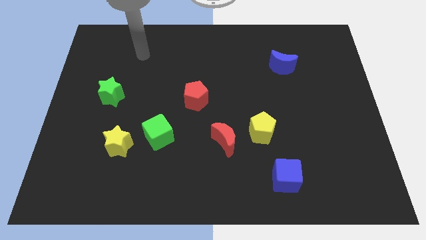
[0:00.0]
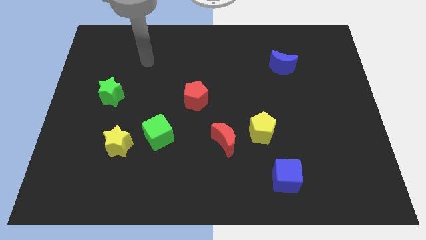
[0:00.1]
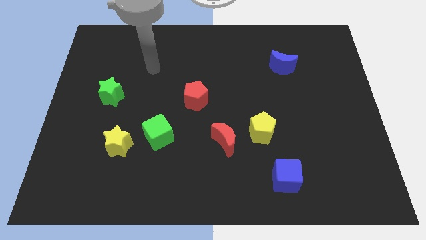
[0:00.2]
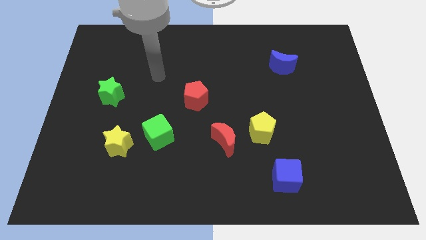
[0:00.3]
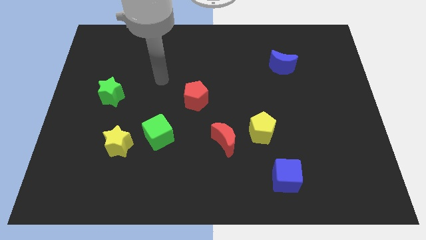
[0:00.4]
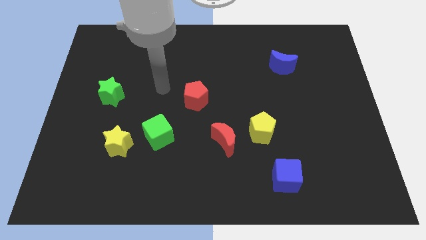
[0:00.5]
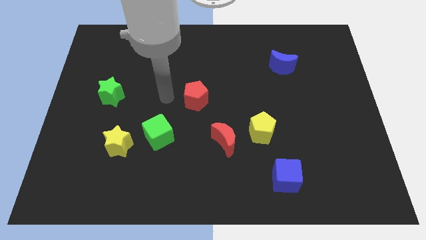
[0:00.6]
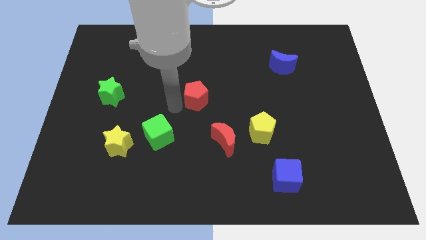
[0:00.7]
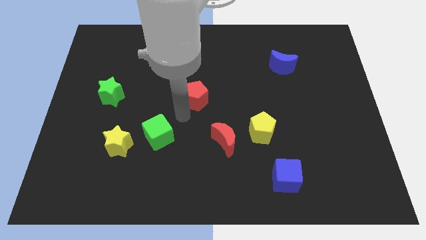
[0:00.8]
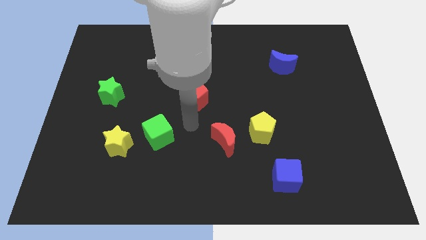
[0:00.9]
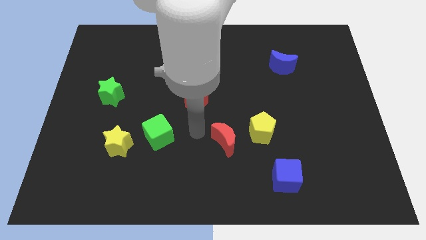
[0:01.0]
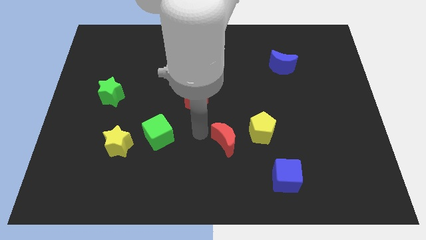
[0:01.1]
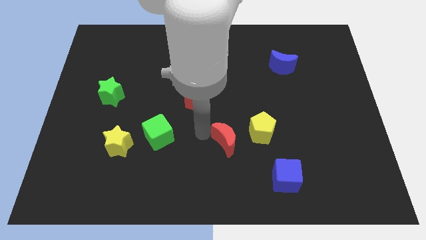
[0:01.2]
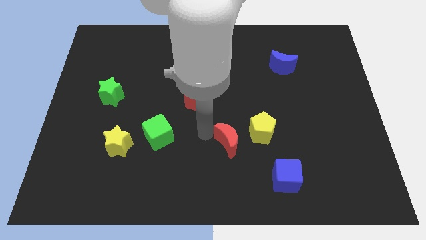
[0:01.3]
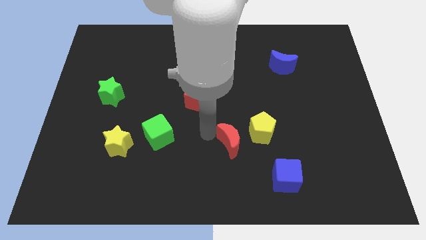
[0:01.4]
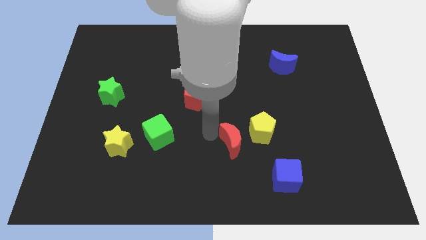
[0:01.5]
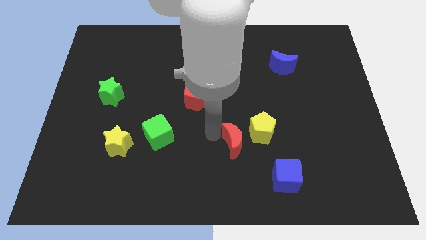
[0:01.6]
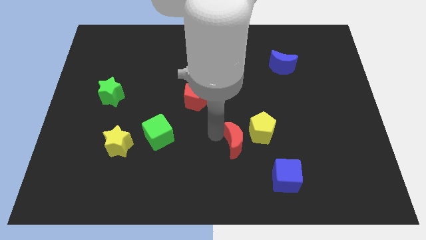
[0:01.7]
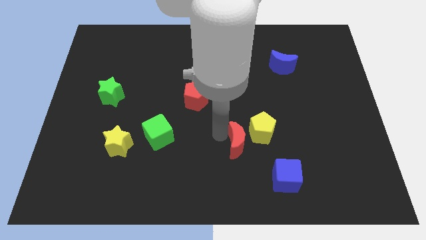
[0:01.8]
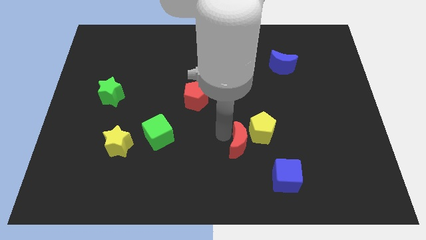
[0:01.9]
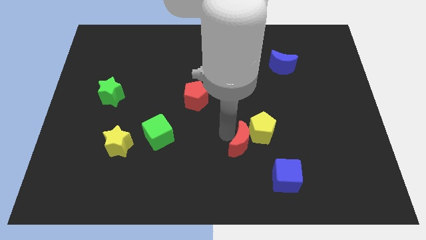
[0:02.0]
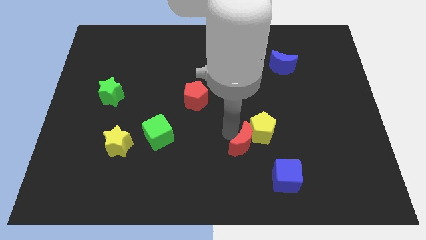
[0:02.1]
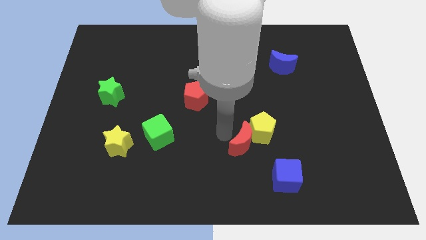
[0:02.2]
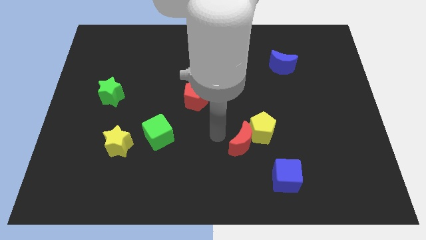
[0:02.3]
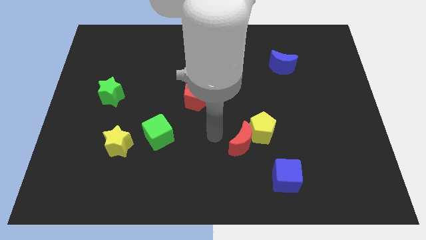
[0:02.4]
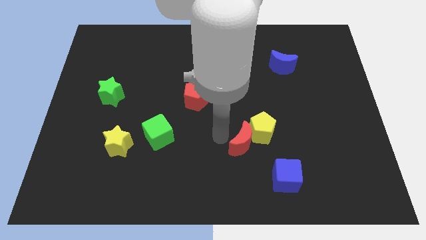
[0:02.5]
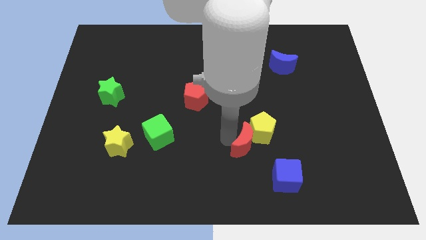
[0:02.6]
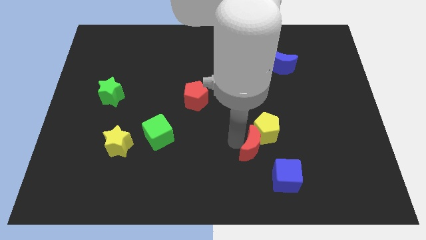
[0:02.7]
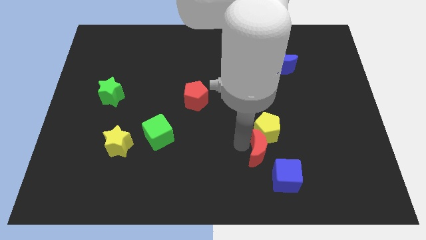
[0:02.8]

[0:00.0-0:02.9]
move the red moon slightly right

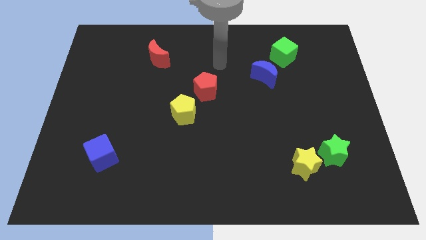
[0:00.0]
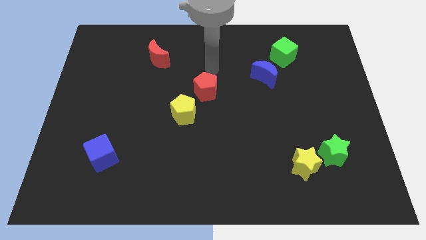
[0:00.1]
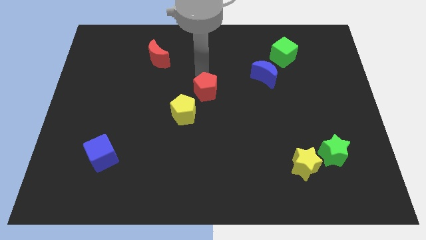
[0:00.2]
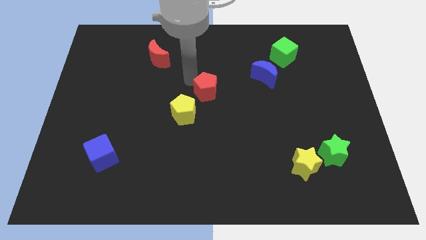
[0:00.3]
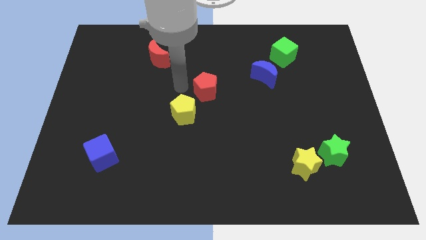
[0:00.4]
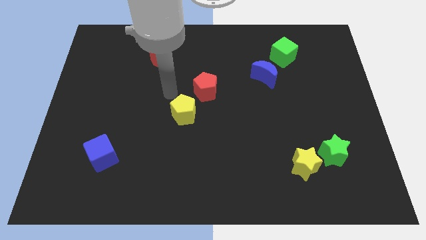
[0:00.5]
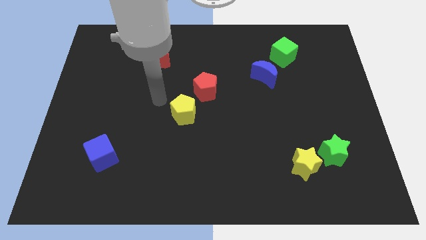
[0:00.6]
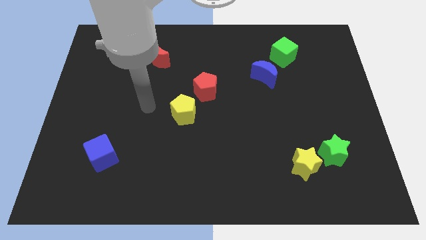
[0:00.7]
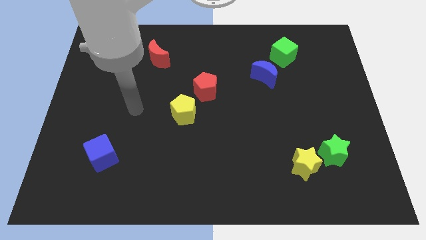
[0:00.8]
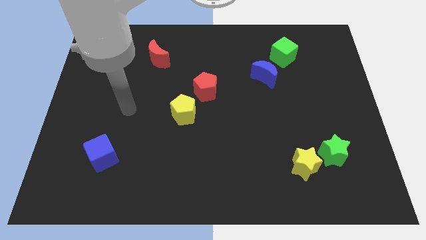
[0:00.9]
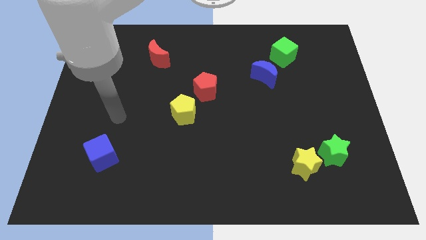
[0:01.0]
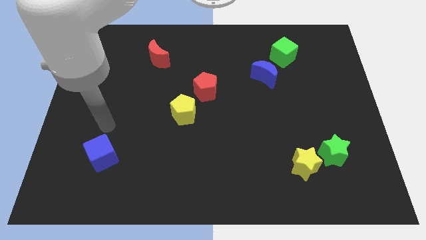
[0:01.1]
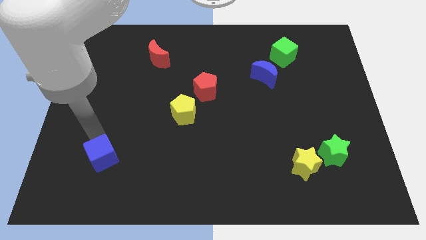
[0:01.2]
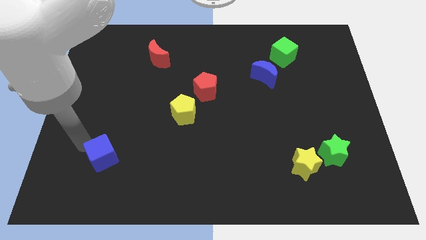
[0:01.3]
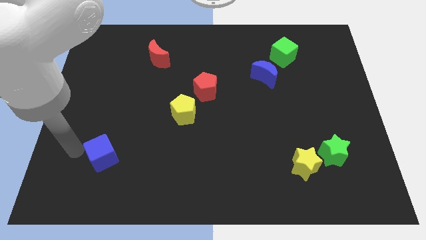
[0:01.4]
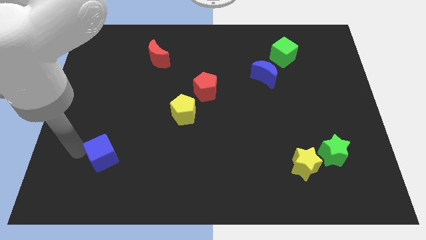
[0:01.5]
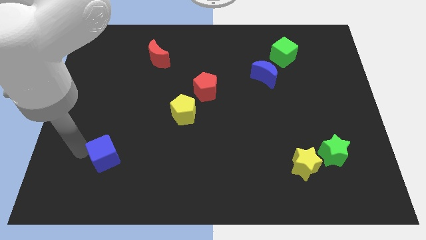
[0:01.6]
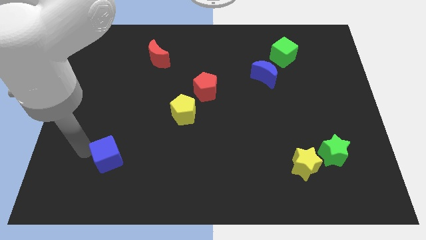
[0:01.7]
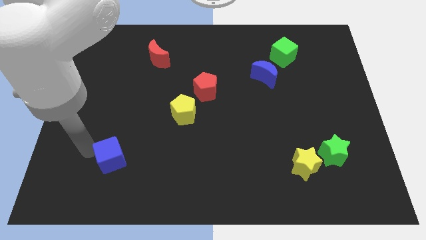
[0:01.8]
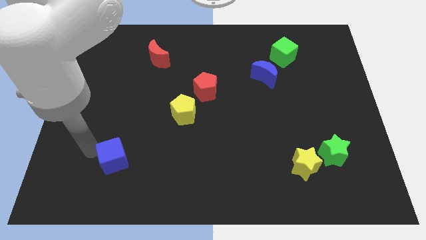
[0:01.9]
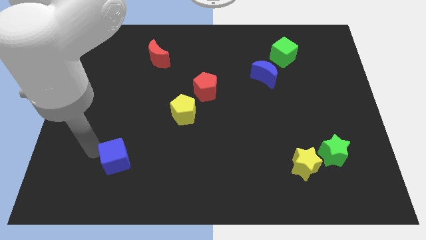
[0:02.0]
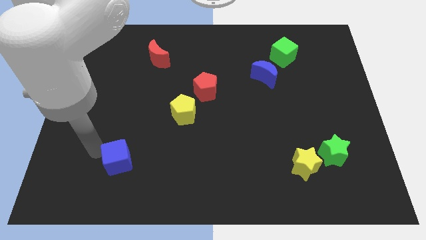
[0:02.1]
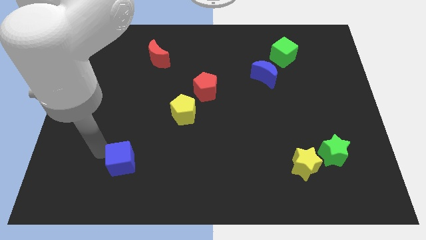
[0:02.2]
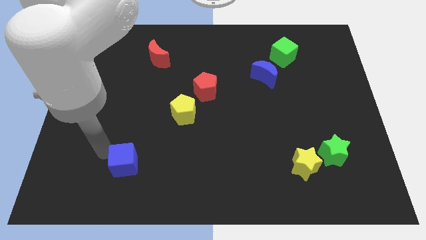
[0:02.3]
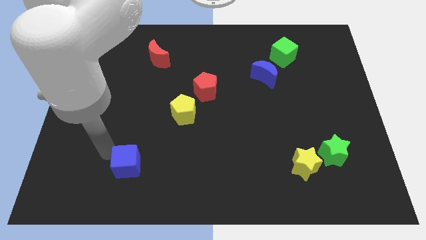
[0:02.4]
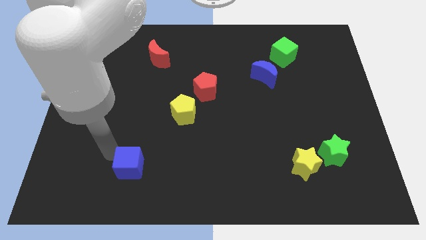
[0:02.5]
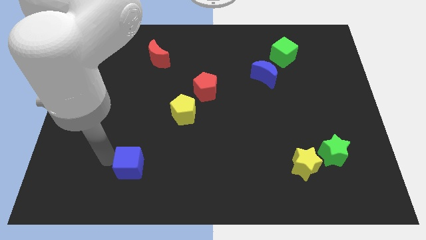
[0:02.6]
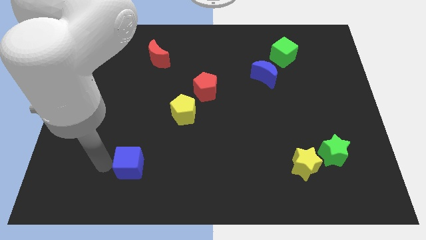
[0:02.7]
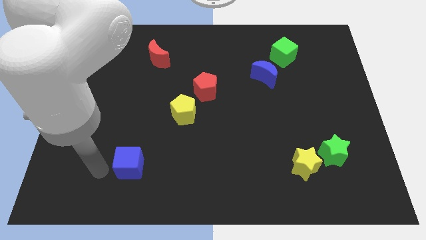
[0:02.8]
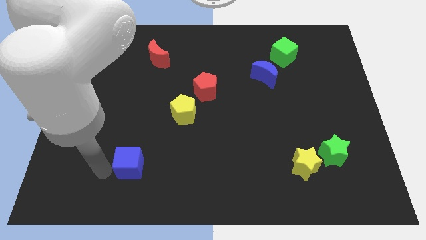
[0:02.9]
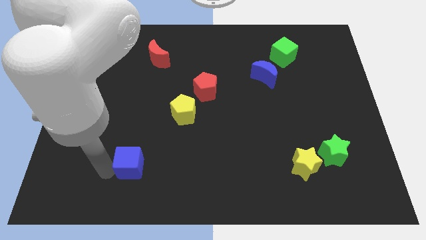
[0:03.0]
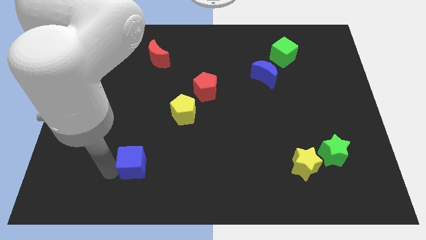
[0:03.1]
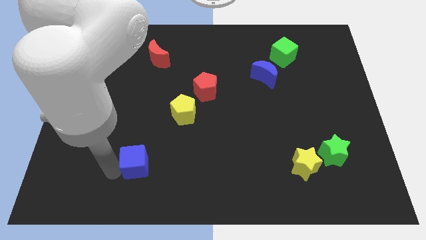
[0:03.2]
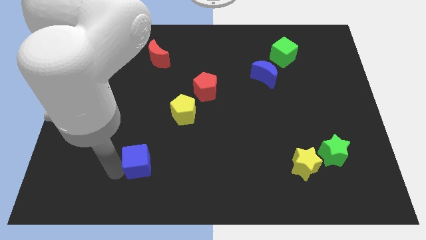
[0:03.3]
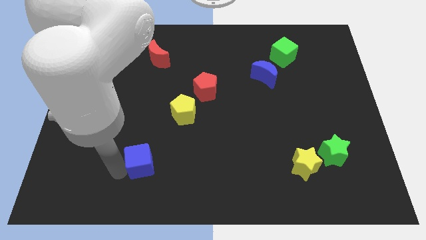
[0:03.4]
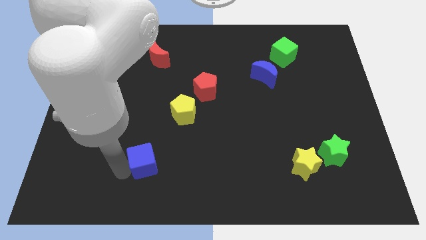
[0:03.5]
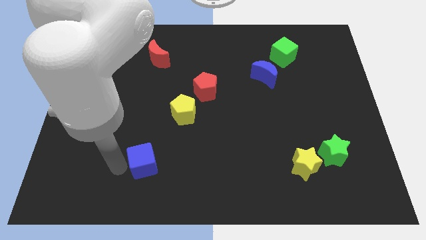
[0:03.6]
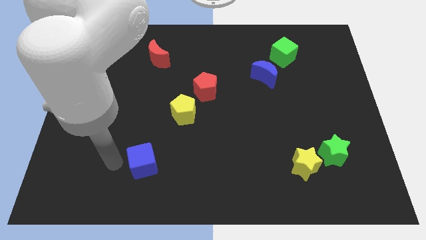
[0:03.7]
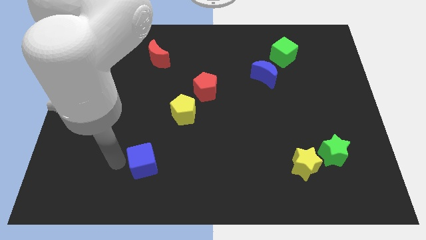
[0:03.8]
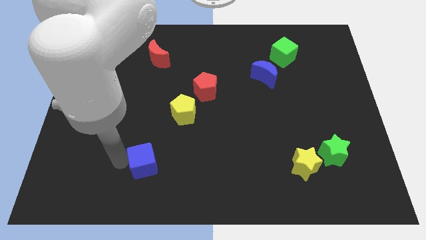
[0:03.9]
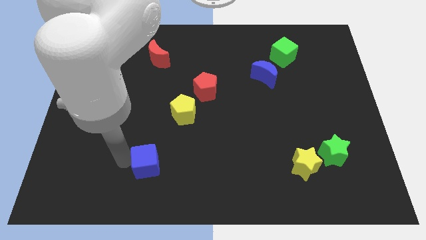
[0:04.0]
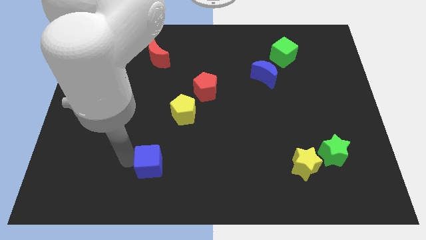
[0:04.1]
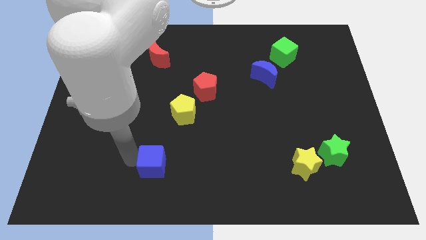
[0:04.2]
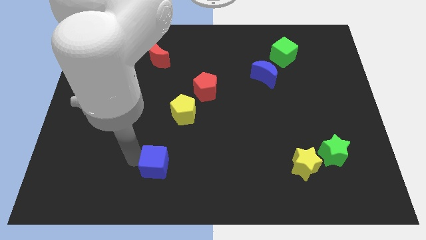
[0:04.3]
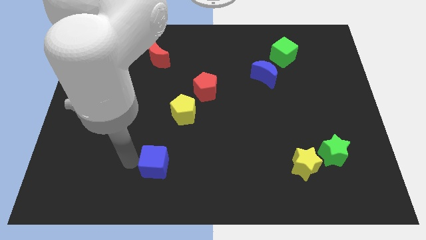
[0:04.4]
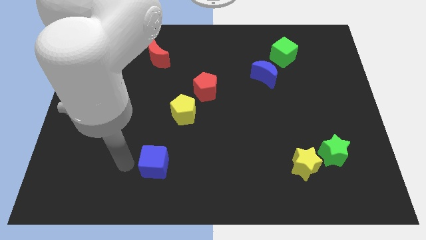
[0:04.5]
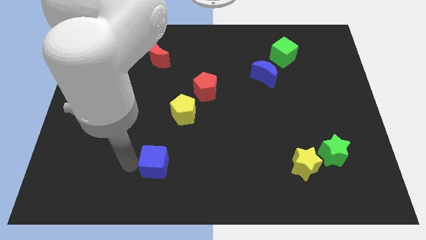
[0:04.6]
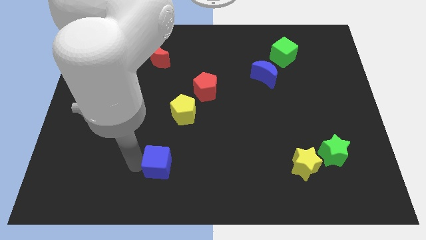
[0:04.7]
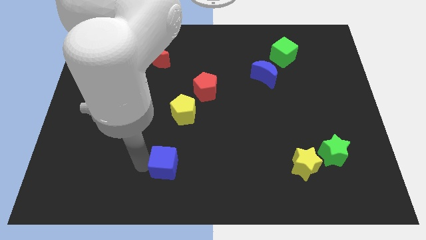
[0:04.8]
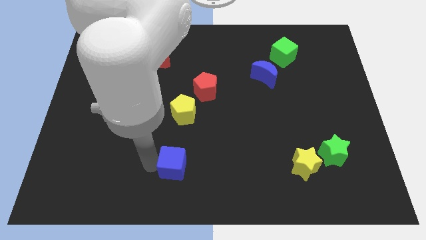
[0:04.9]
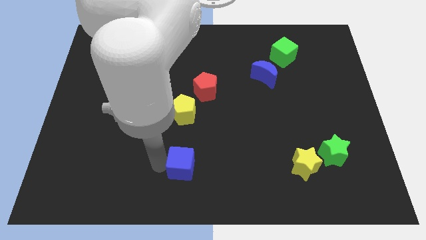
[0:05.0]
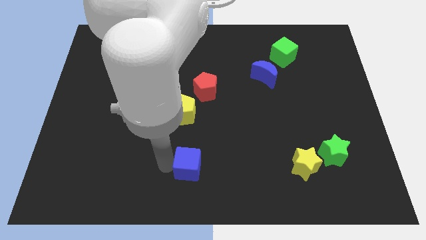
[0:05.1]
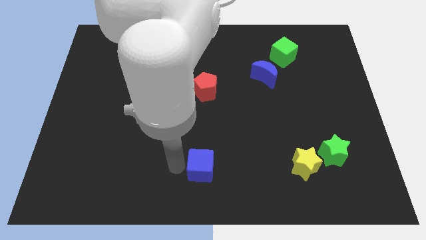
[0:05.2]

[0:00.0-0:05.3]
slide the blue cube right
